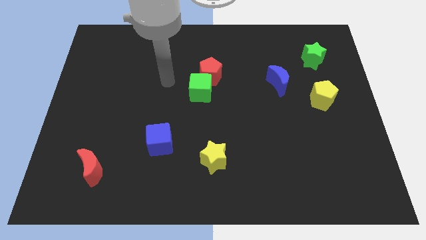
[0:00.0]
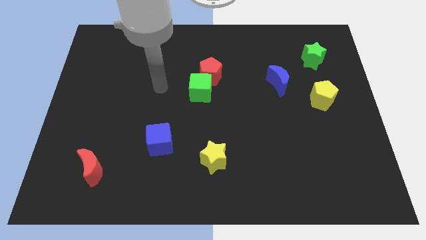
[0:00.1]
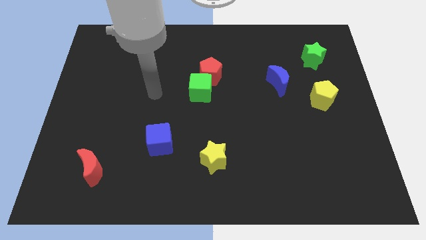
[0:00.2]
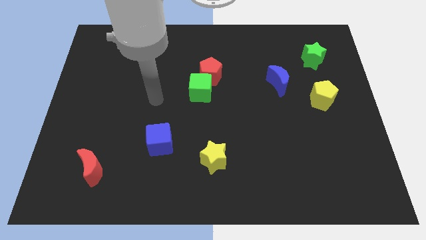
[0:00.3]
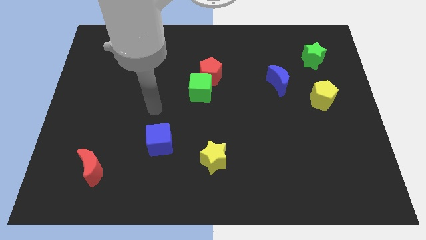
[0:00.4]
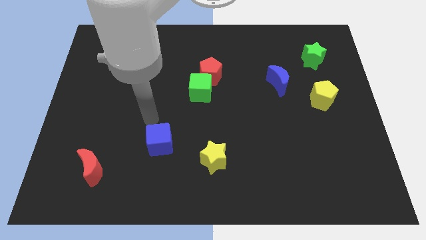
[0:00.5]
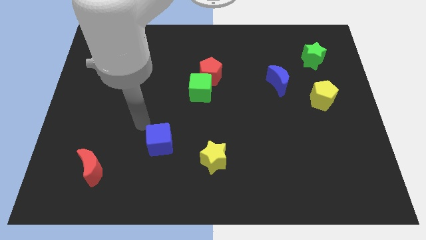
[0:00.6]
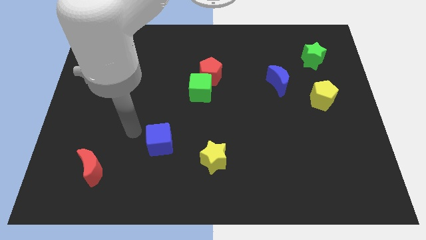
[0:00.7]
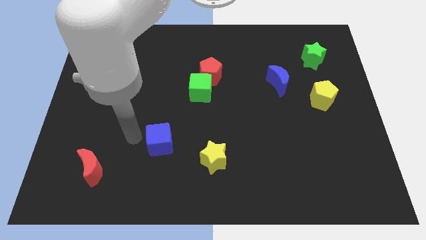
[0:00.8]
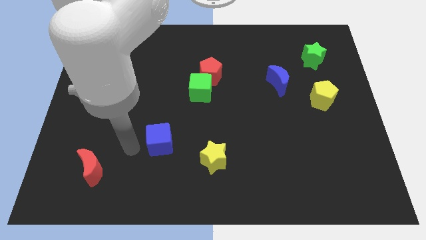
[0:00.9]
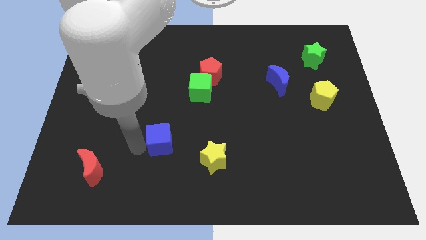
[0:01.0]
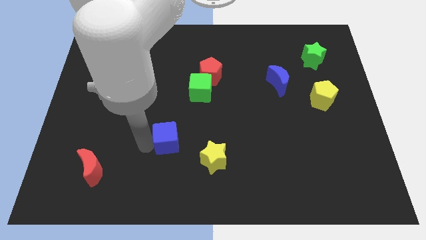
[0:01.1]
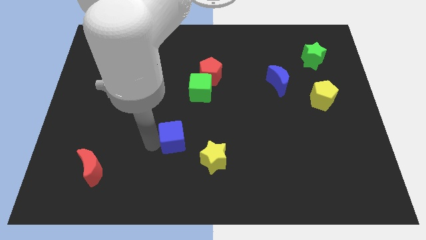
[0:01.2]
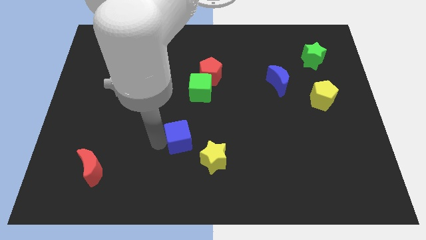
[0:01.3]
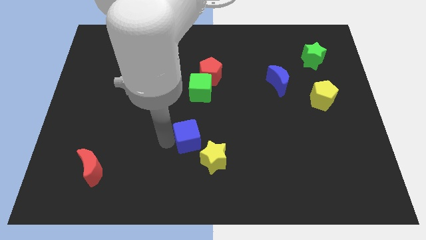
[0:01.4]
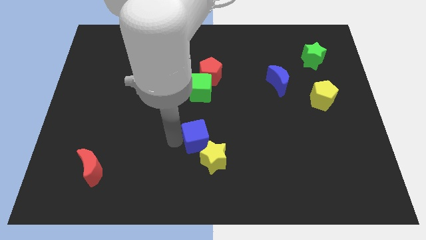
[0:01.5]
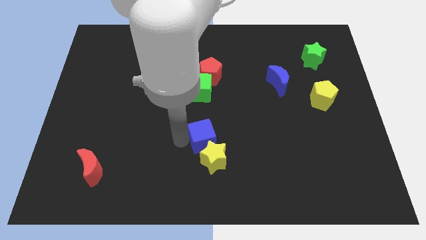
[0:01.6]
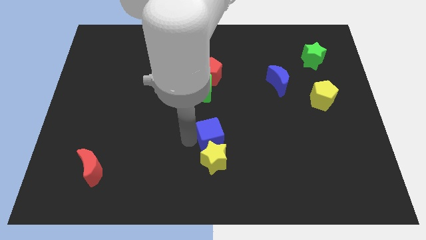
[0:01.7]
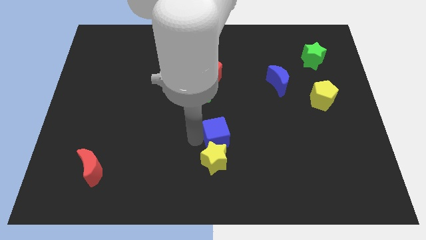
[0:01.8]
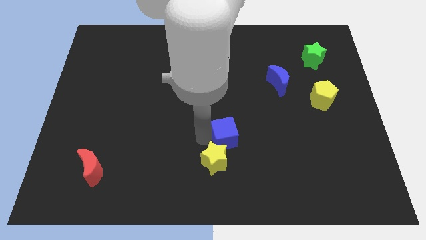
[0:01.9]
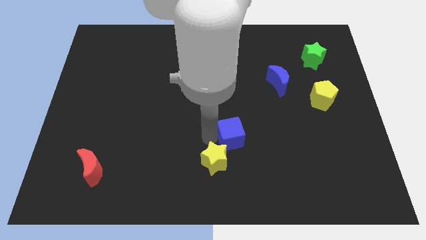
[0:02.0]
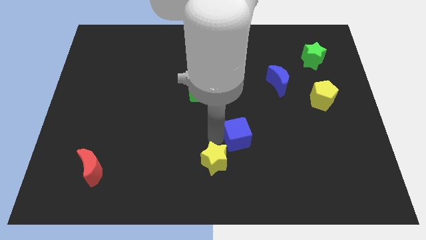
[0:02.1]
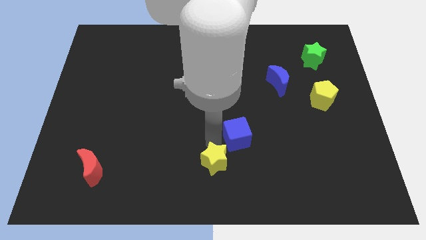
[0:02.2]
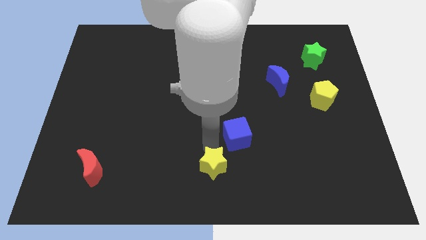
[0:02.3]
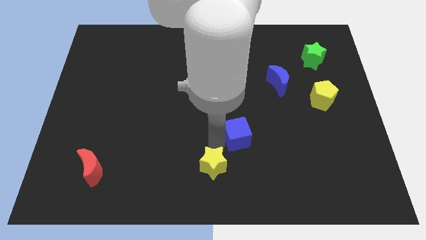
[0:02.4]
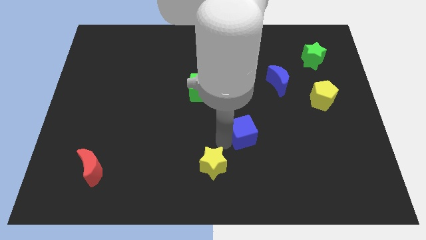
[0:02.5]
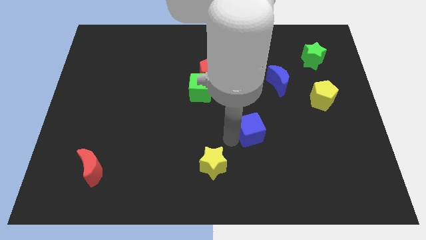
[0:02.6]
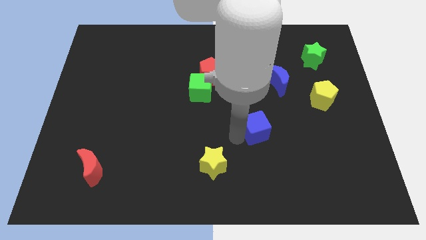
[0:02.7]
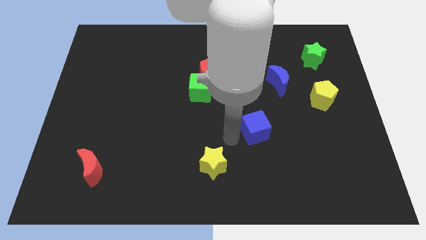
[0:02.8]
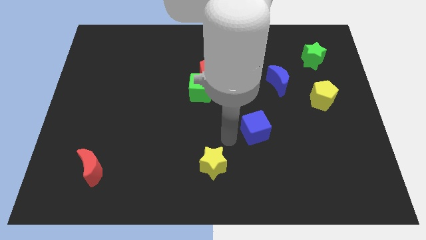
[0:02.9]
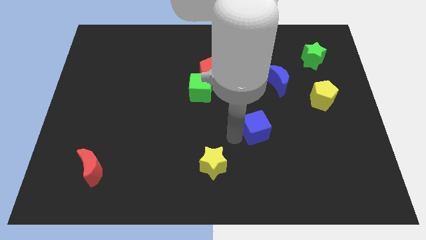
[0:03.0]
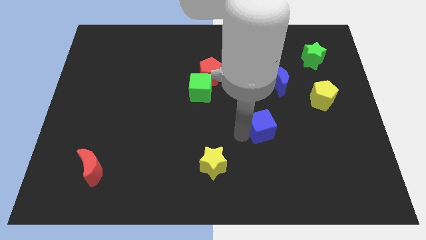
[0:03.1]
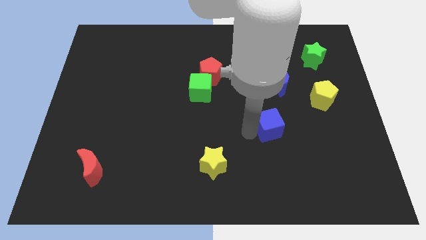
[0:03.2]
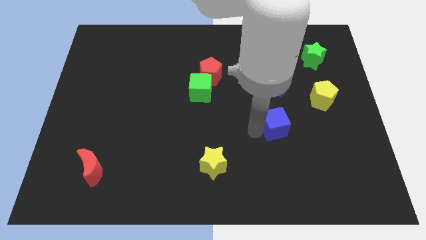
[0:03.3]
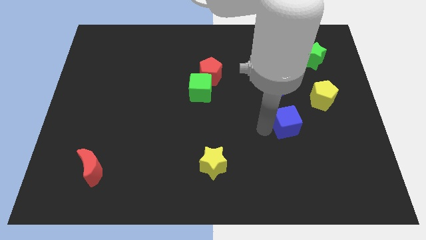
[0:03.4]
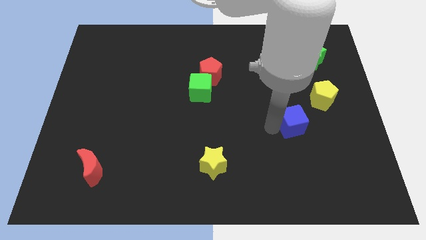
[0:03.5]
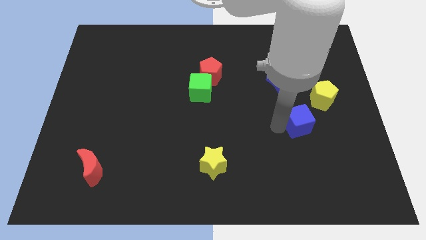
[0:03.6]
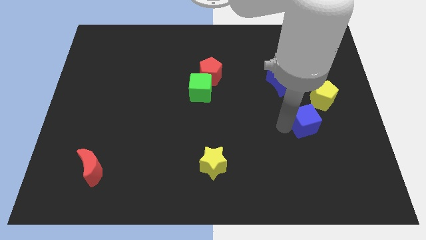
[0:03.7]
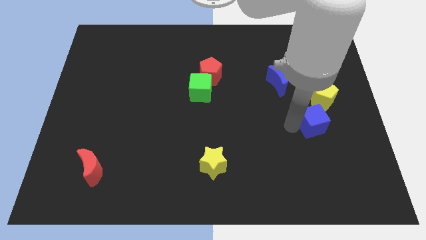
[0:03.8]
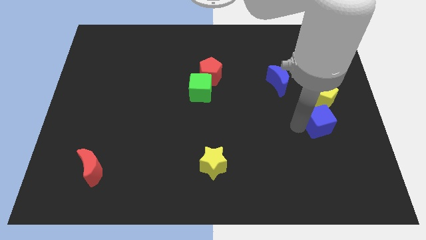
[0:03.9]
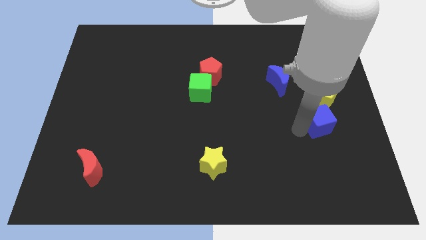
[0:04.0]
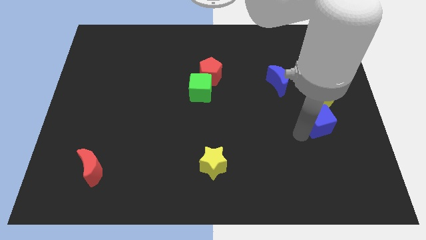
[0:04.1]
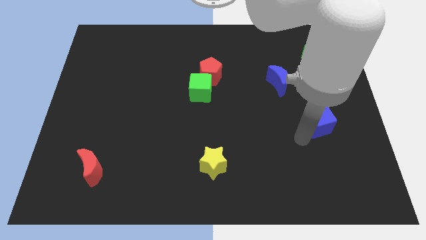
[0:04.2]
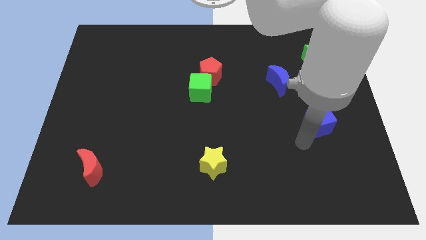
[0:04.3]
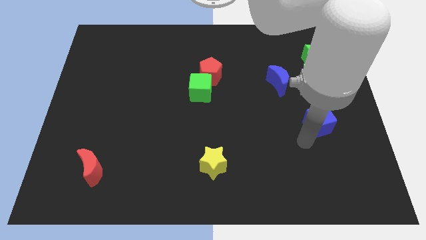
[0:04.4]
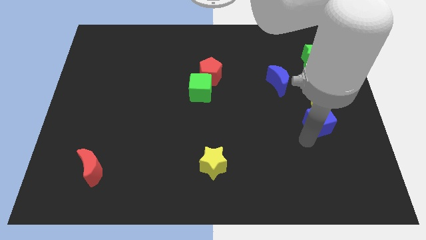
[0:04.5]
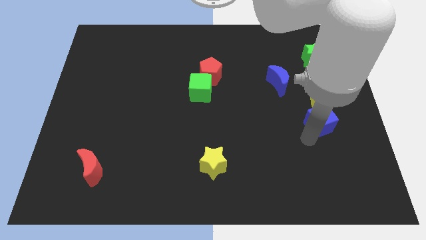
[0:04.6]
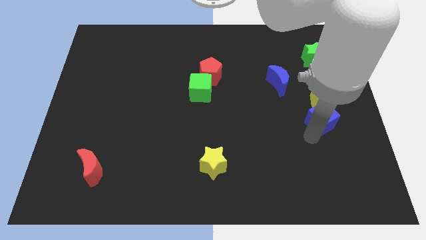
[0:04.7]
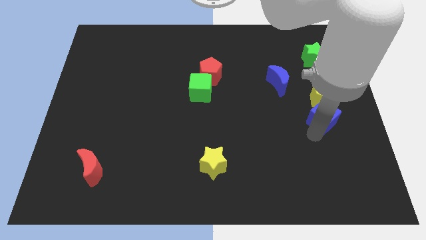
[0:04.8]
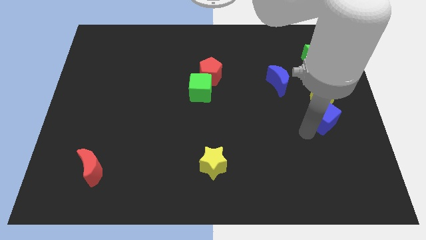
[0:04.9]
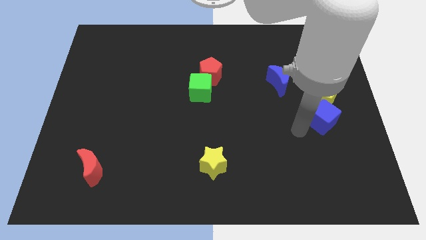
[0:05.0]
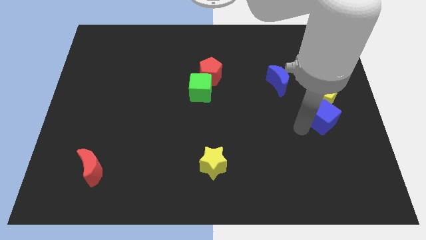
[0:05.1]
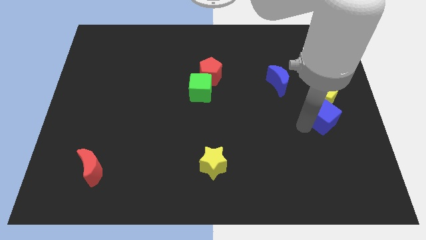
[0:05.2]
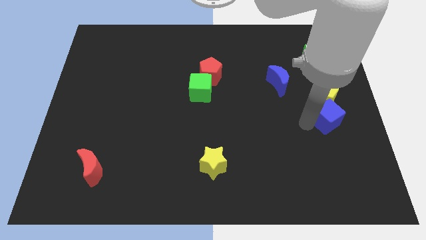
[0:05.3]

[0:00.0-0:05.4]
put the blue cube to the center right

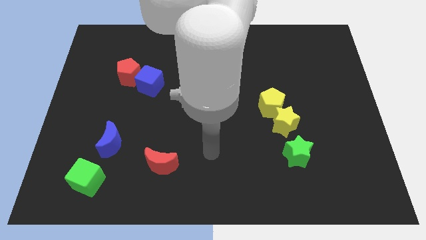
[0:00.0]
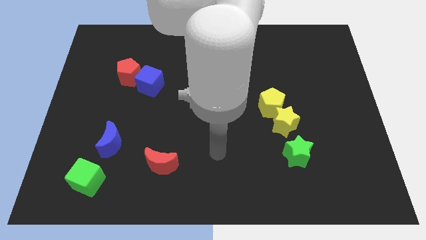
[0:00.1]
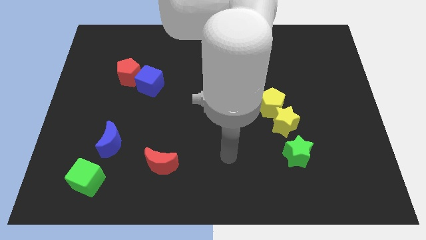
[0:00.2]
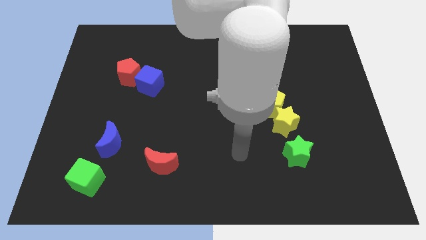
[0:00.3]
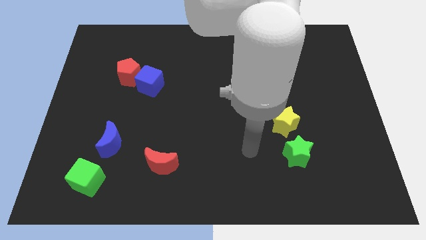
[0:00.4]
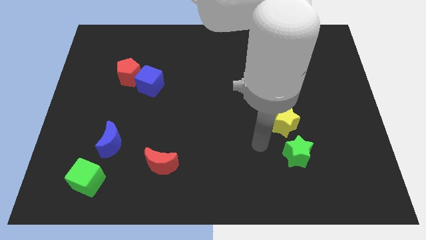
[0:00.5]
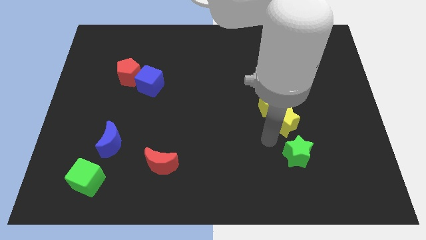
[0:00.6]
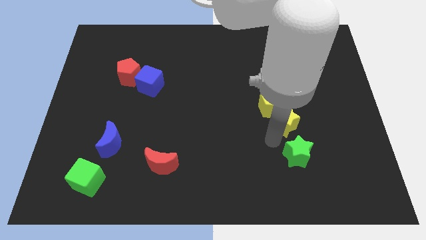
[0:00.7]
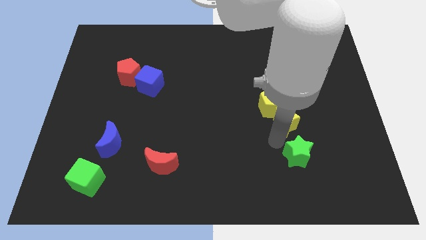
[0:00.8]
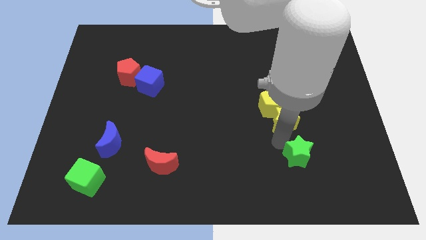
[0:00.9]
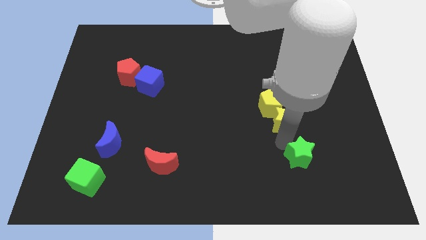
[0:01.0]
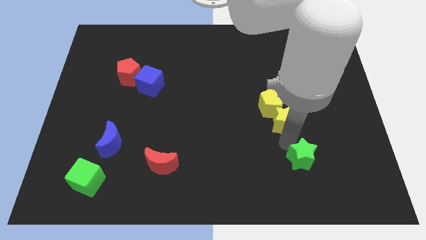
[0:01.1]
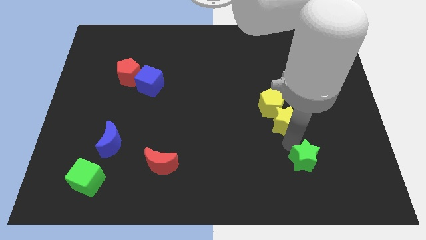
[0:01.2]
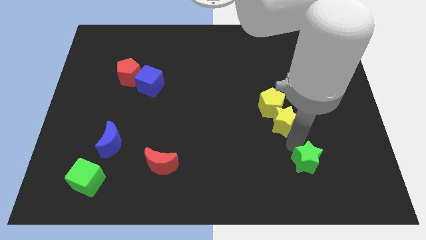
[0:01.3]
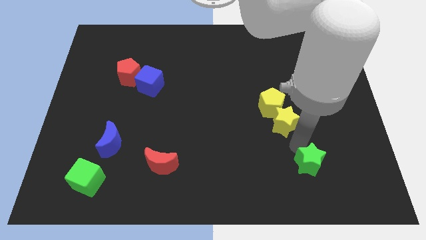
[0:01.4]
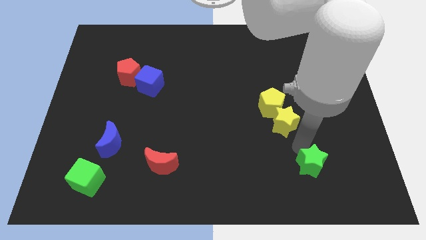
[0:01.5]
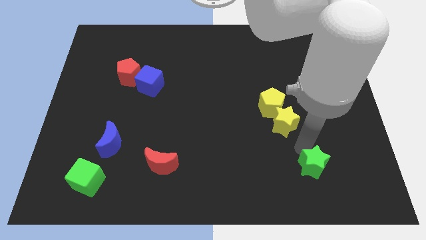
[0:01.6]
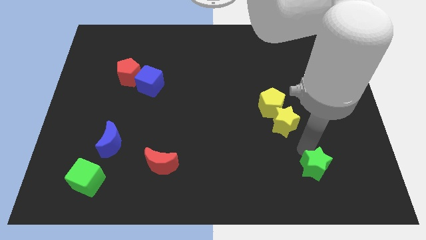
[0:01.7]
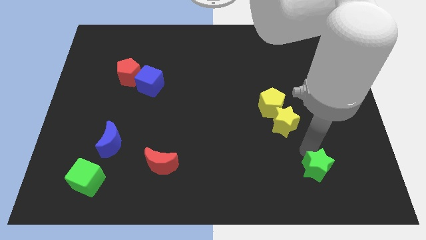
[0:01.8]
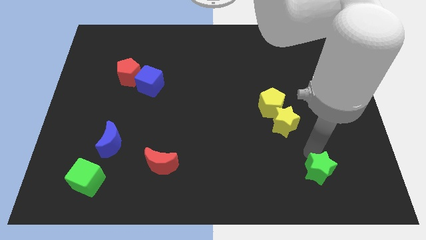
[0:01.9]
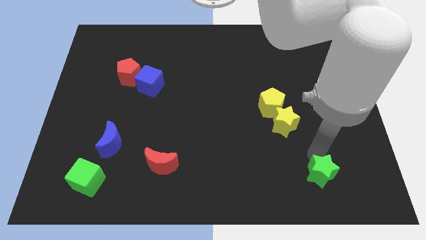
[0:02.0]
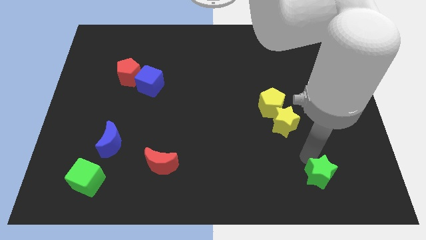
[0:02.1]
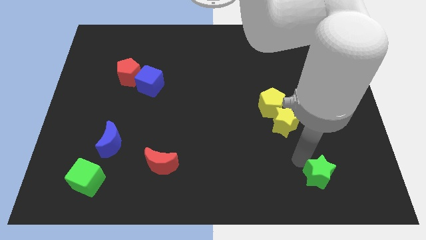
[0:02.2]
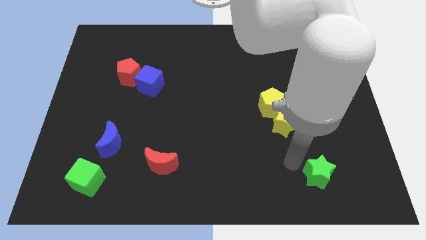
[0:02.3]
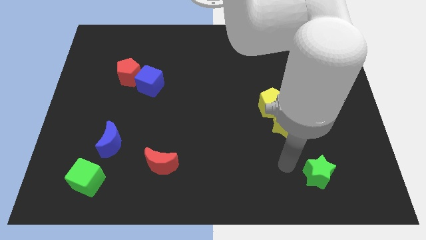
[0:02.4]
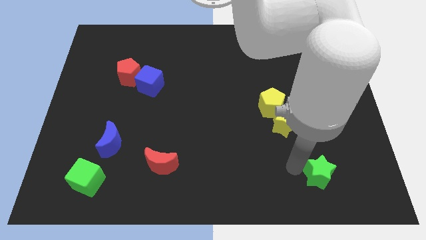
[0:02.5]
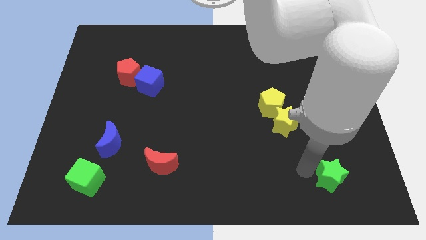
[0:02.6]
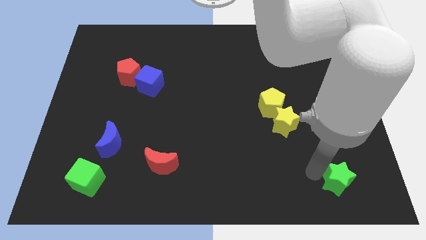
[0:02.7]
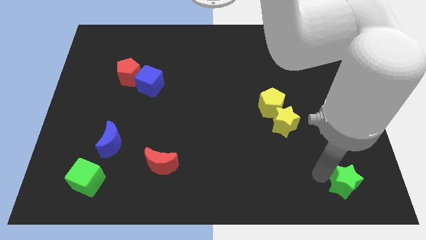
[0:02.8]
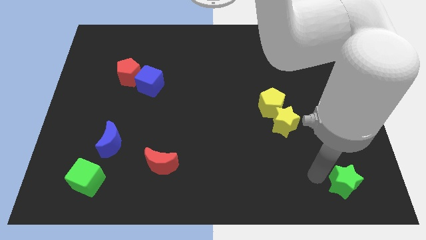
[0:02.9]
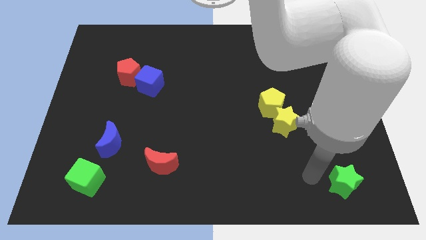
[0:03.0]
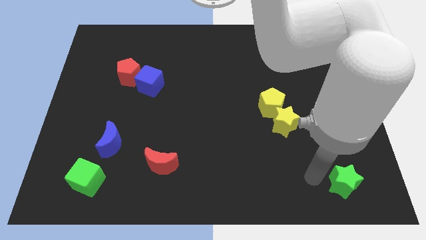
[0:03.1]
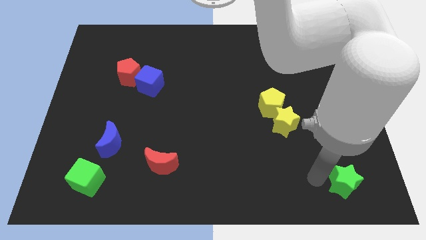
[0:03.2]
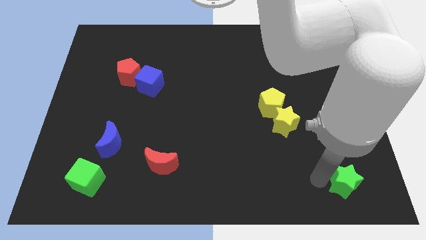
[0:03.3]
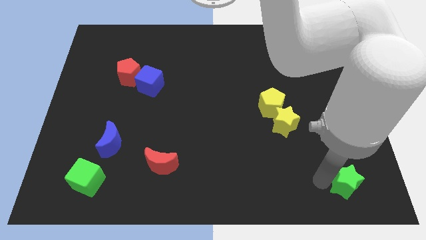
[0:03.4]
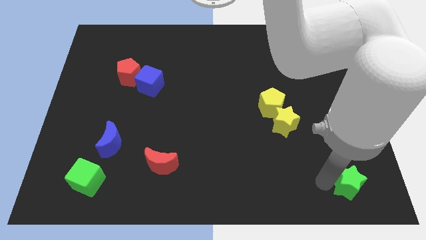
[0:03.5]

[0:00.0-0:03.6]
put the green star to the lower right corner
